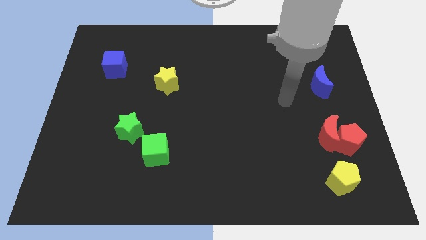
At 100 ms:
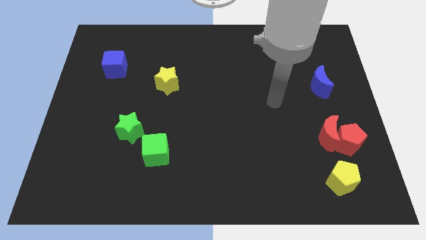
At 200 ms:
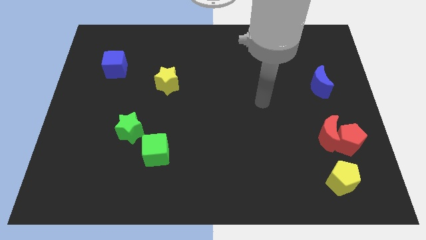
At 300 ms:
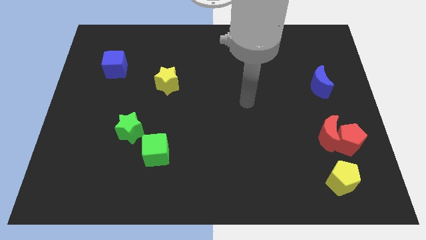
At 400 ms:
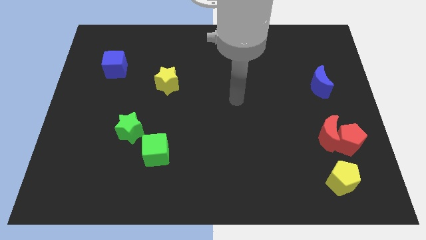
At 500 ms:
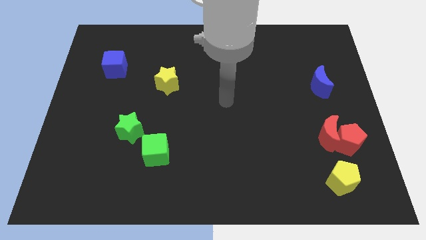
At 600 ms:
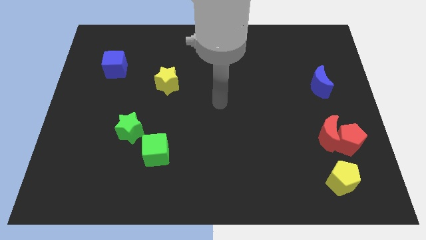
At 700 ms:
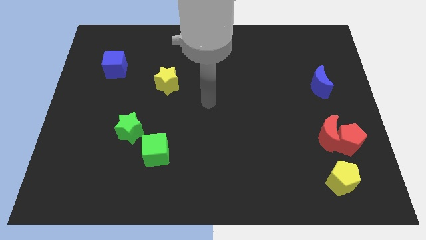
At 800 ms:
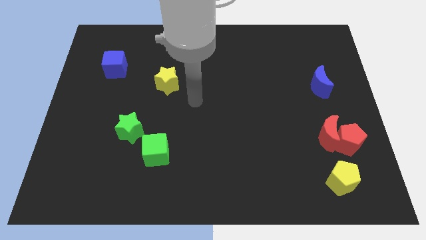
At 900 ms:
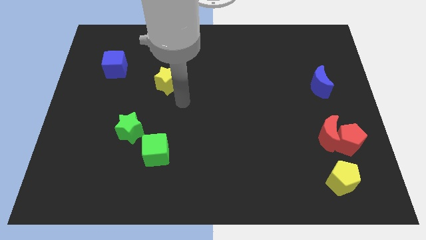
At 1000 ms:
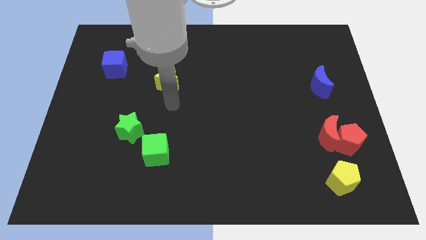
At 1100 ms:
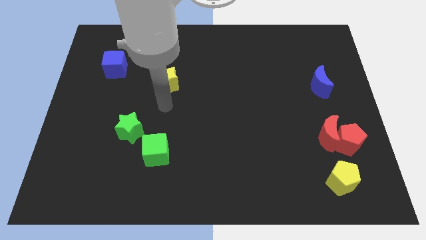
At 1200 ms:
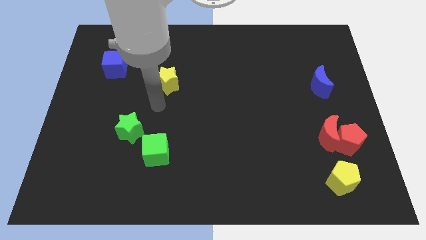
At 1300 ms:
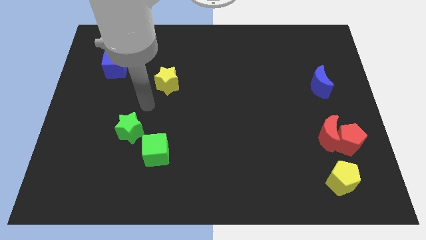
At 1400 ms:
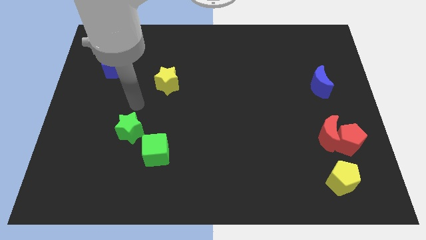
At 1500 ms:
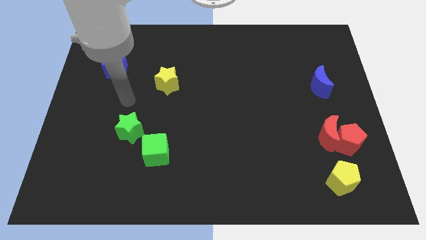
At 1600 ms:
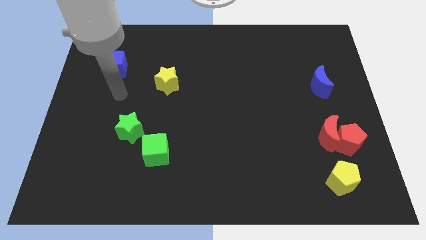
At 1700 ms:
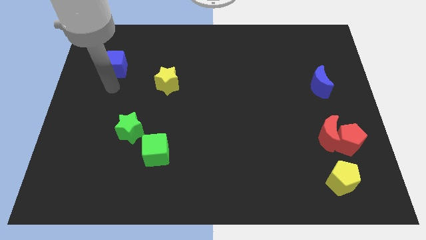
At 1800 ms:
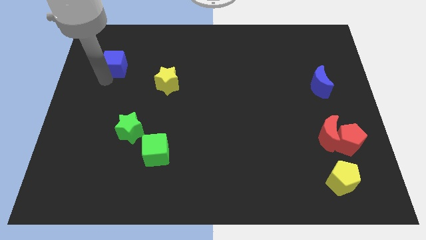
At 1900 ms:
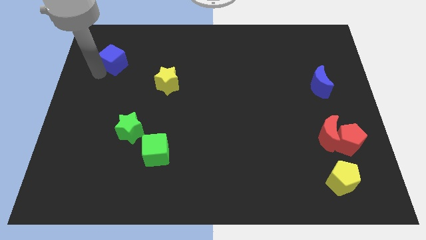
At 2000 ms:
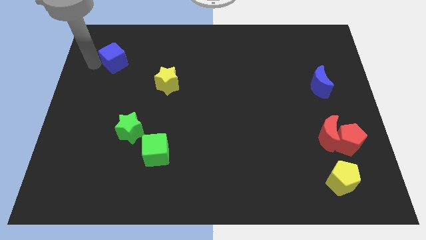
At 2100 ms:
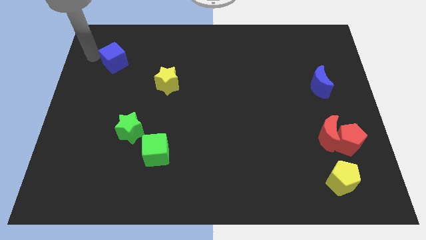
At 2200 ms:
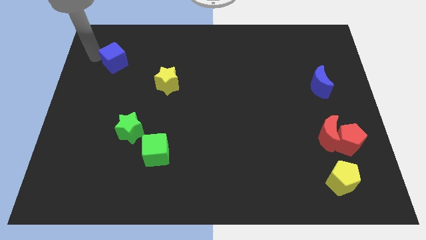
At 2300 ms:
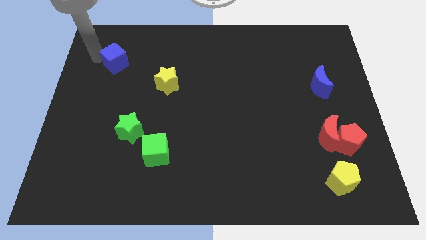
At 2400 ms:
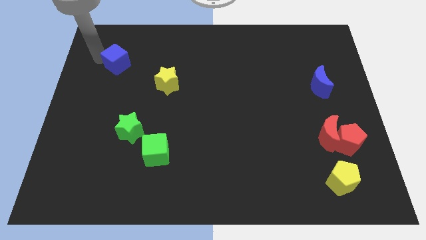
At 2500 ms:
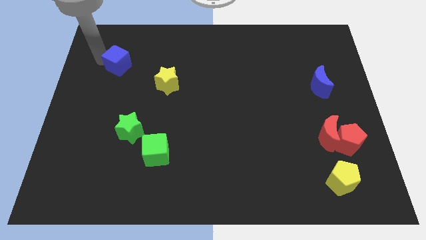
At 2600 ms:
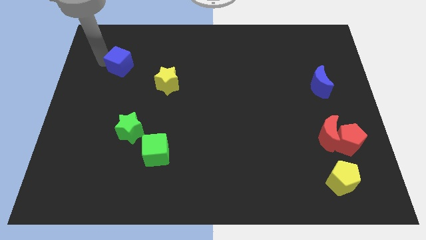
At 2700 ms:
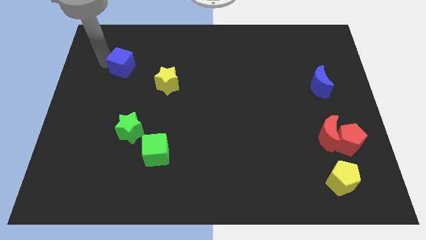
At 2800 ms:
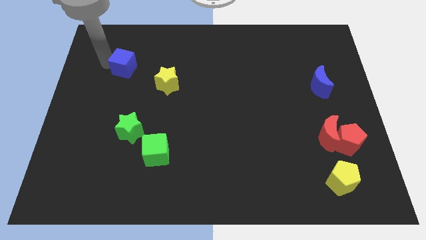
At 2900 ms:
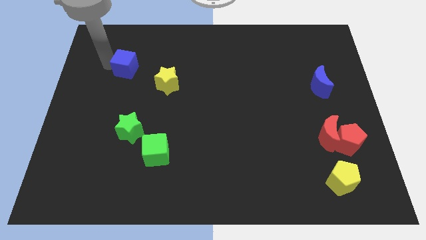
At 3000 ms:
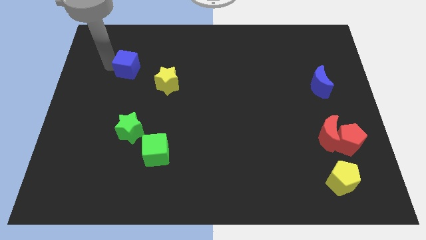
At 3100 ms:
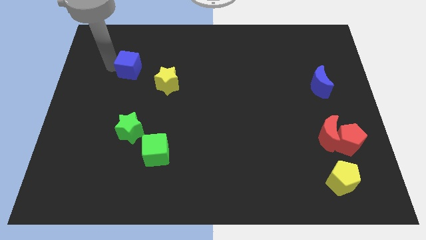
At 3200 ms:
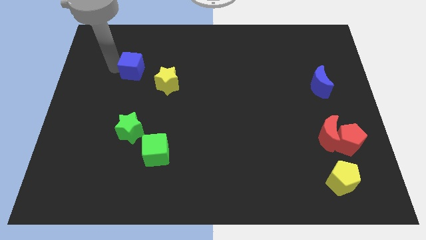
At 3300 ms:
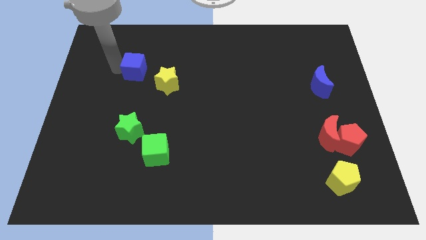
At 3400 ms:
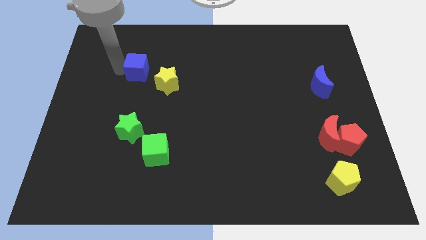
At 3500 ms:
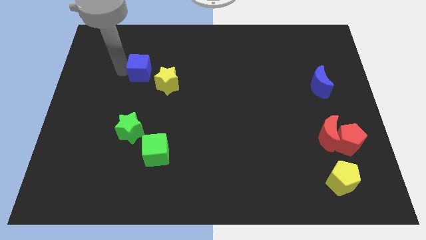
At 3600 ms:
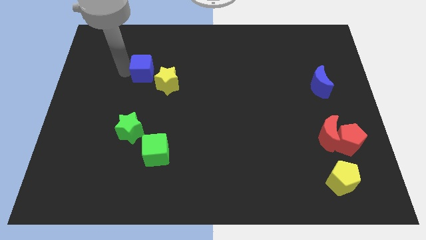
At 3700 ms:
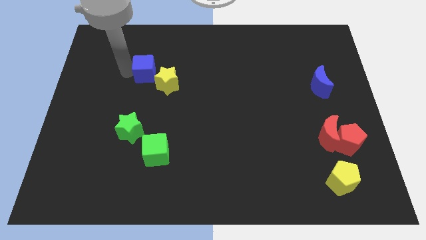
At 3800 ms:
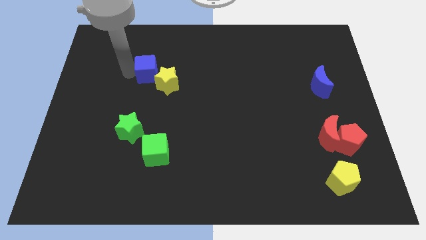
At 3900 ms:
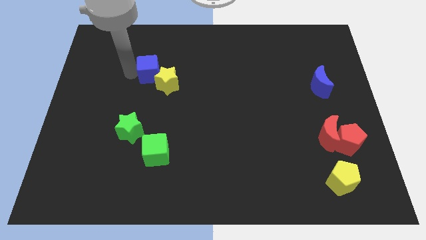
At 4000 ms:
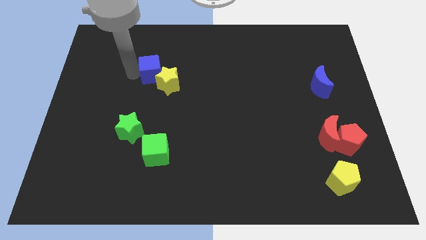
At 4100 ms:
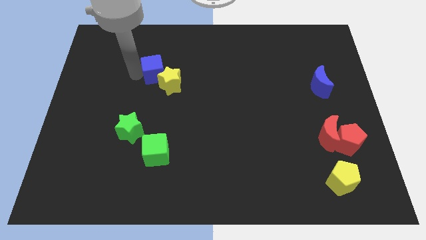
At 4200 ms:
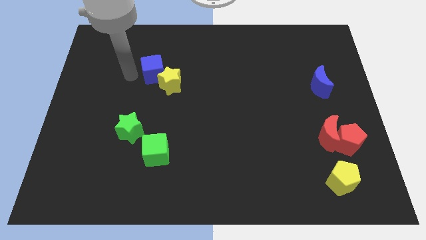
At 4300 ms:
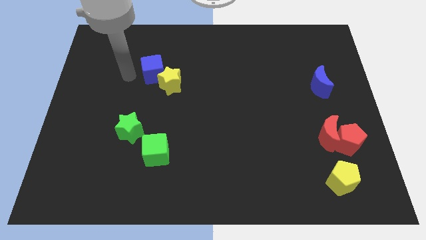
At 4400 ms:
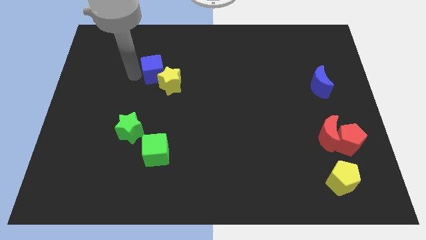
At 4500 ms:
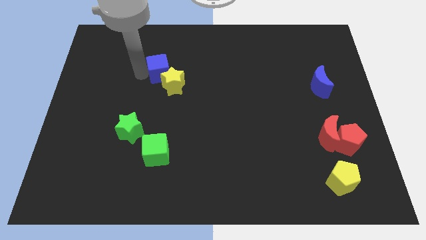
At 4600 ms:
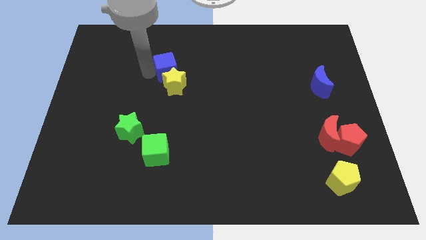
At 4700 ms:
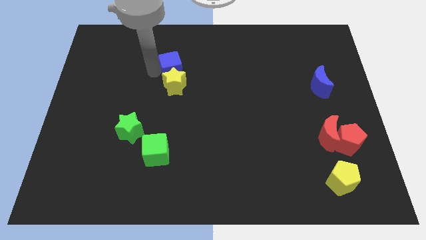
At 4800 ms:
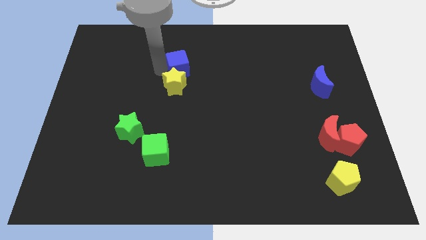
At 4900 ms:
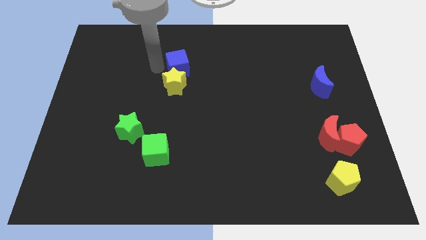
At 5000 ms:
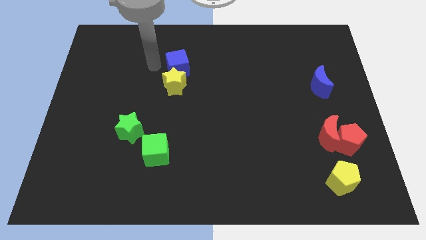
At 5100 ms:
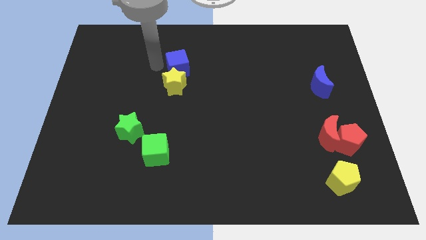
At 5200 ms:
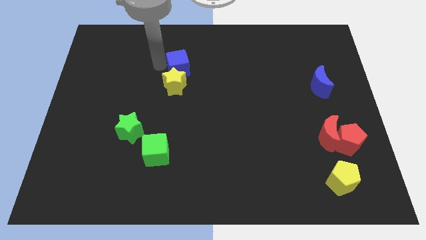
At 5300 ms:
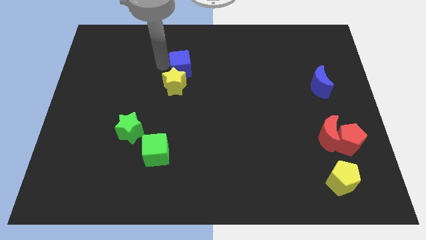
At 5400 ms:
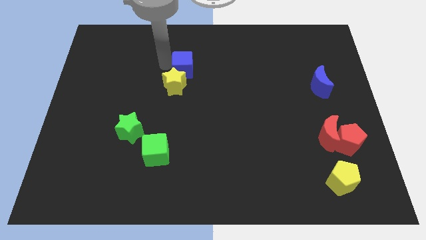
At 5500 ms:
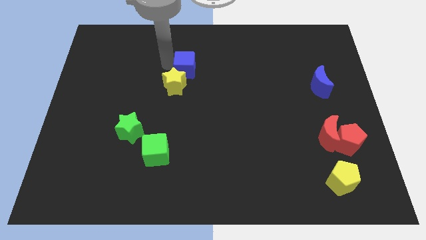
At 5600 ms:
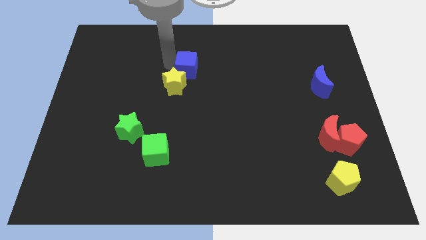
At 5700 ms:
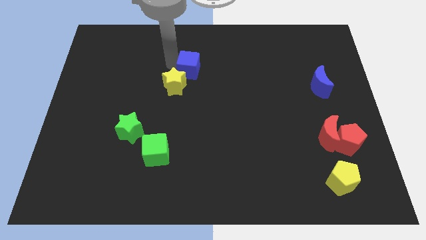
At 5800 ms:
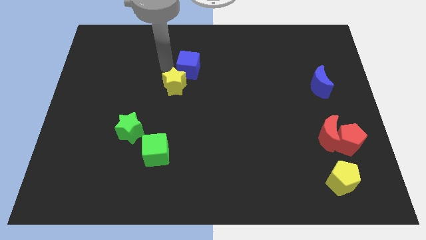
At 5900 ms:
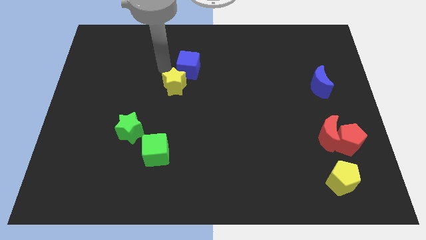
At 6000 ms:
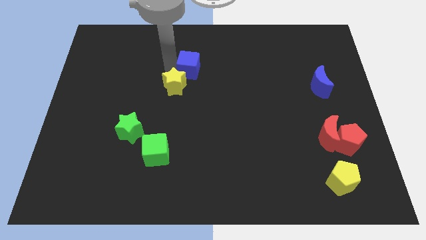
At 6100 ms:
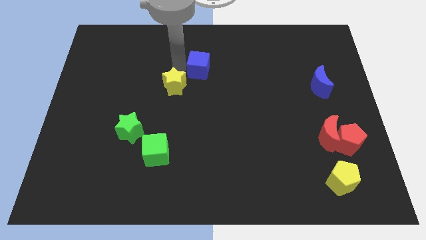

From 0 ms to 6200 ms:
push the blue cube right

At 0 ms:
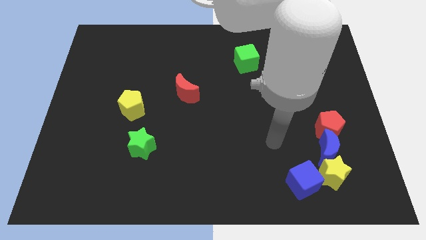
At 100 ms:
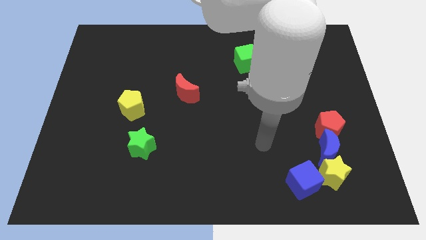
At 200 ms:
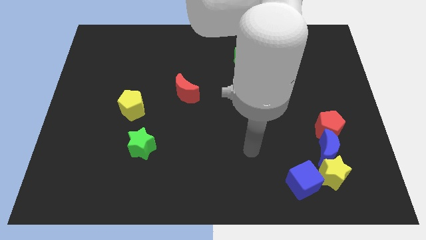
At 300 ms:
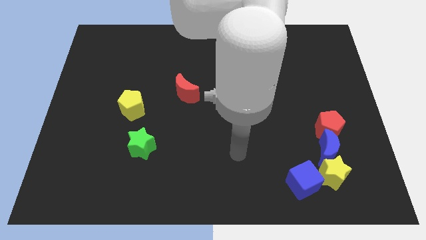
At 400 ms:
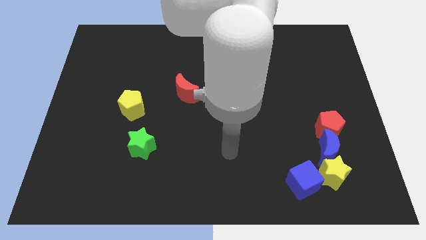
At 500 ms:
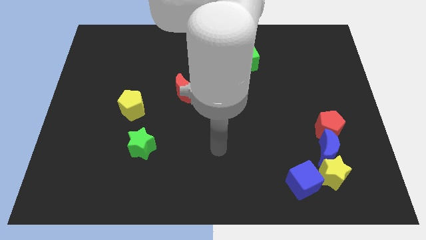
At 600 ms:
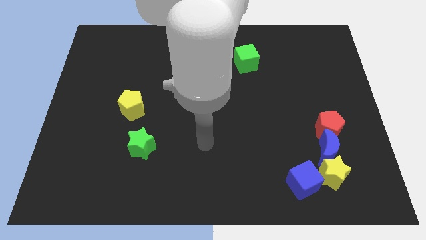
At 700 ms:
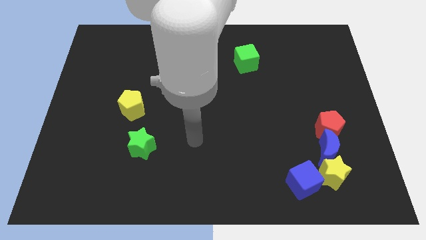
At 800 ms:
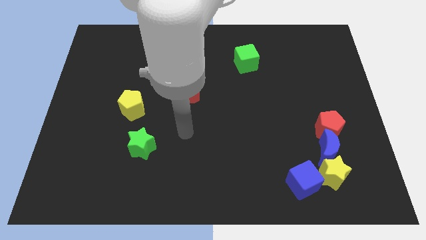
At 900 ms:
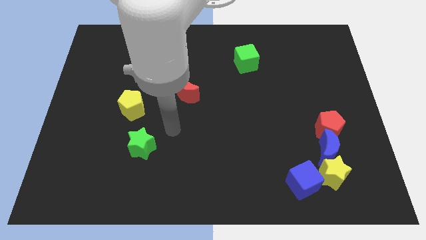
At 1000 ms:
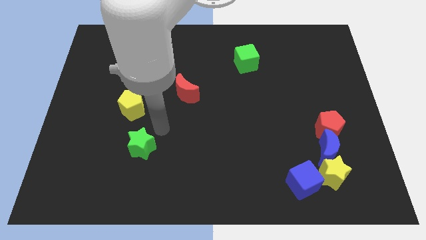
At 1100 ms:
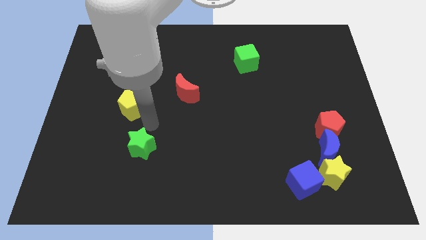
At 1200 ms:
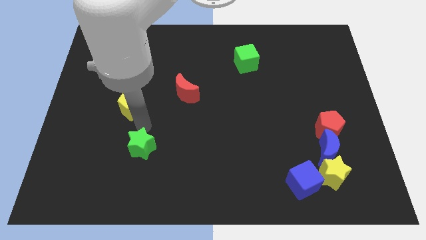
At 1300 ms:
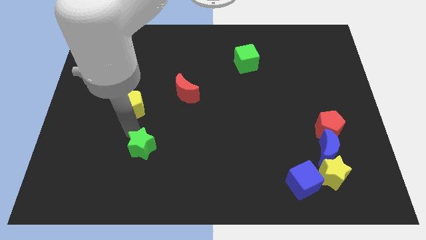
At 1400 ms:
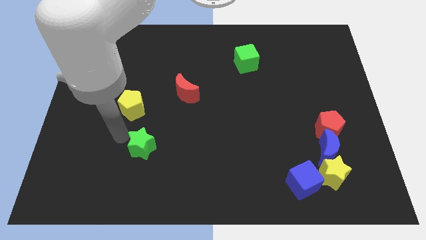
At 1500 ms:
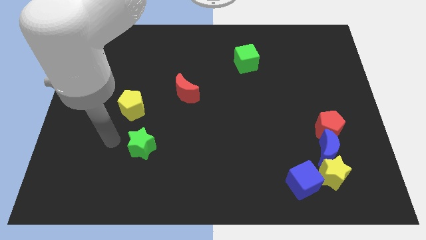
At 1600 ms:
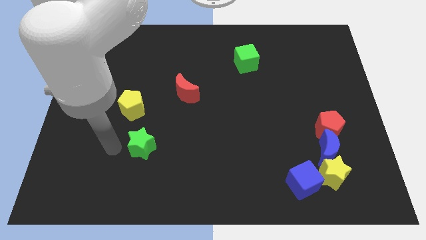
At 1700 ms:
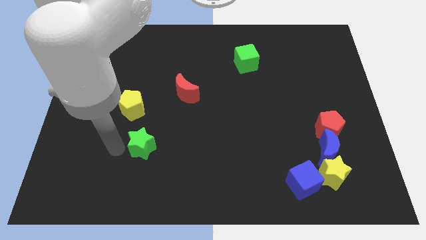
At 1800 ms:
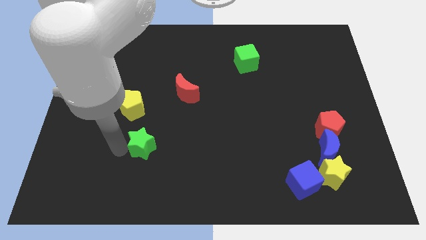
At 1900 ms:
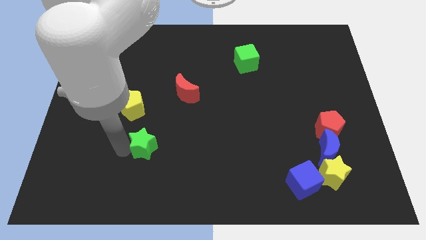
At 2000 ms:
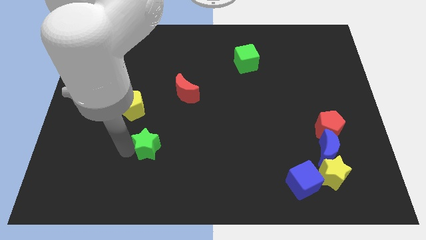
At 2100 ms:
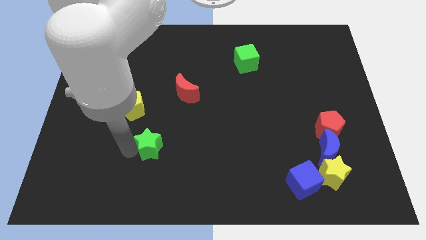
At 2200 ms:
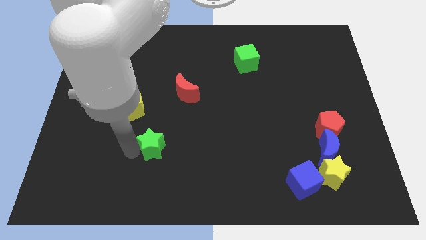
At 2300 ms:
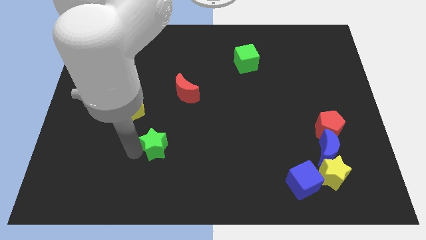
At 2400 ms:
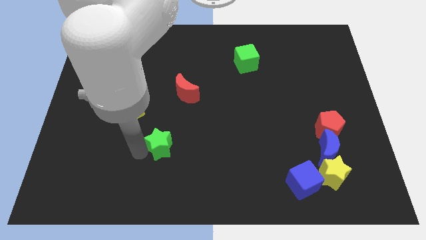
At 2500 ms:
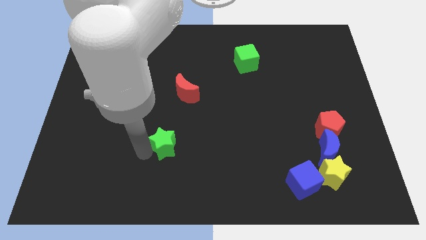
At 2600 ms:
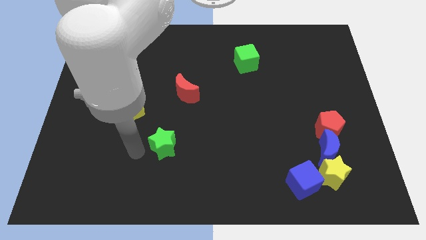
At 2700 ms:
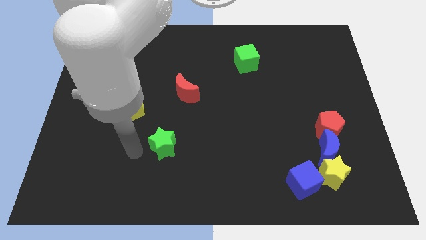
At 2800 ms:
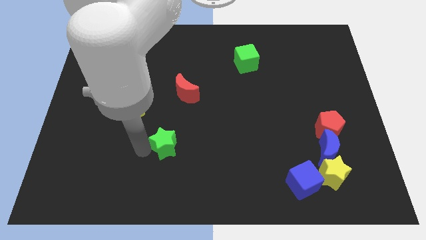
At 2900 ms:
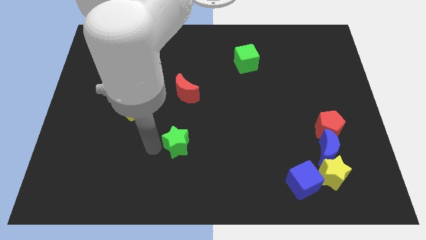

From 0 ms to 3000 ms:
slide the green star right a bit
